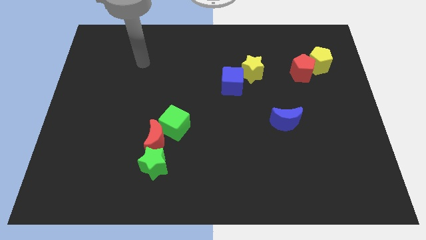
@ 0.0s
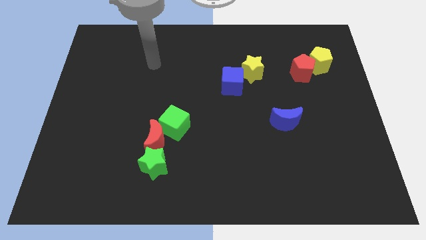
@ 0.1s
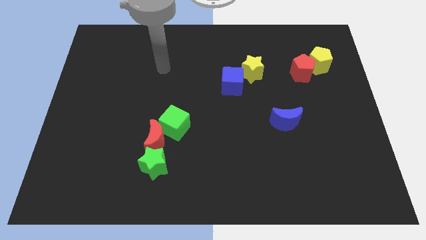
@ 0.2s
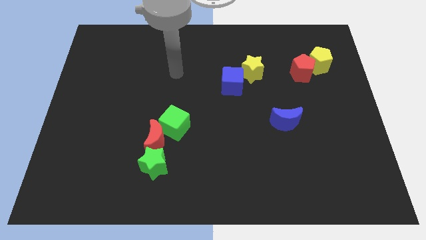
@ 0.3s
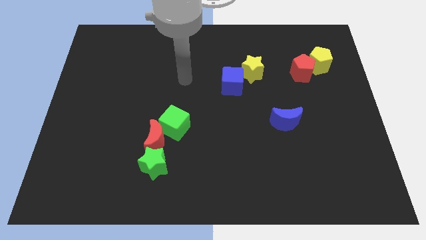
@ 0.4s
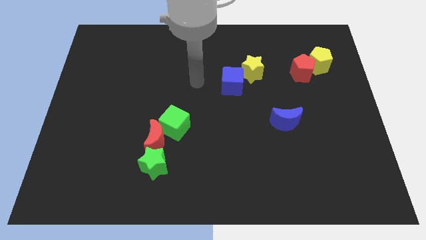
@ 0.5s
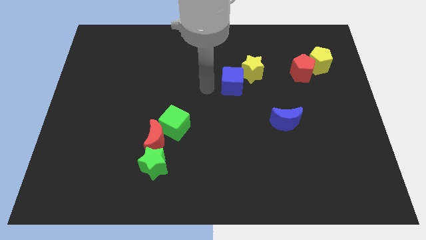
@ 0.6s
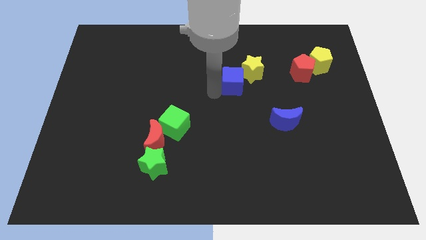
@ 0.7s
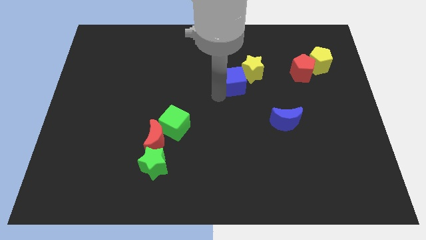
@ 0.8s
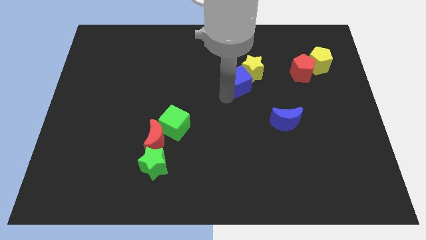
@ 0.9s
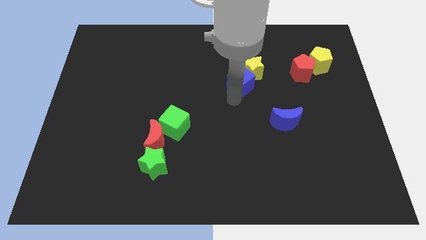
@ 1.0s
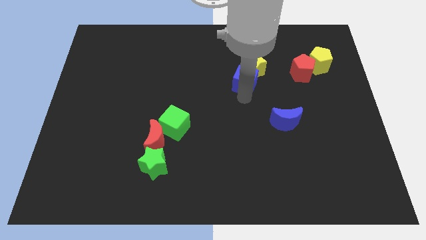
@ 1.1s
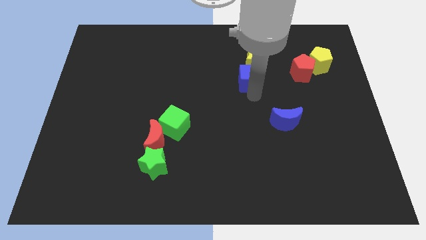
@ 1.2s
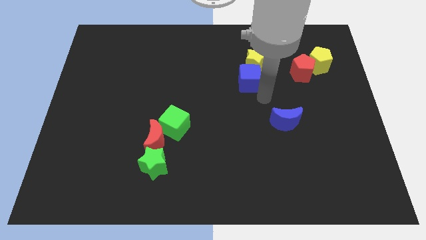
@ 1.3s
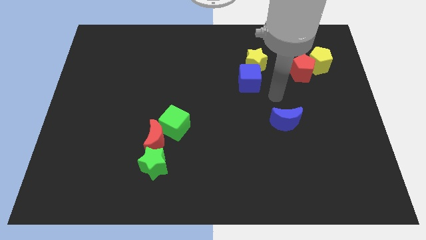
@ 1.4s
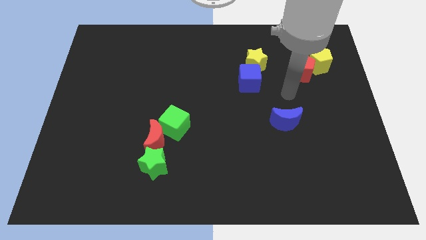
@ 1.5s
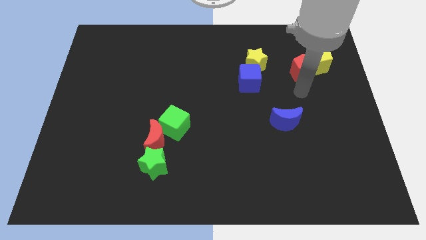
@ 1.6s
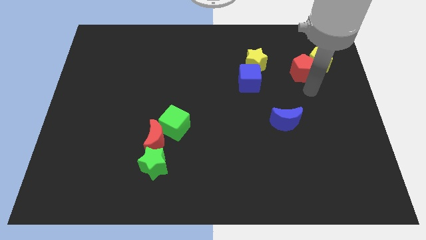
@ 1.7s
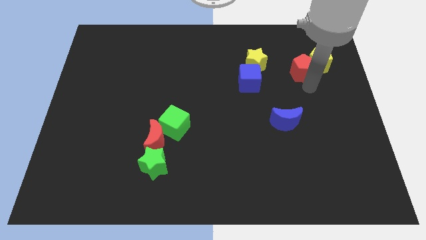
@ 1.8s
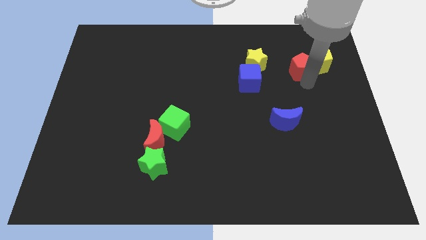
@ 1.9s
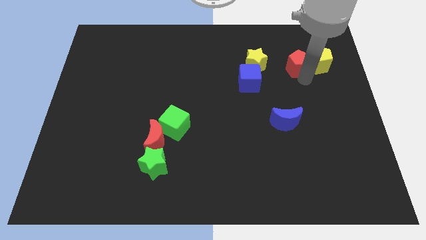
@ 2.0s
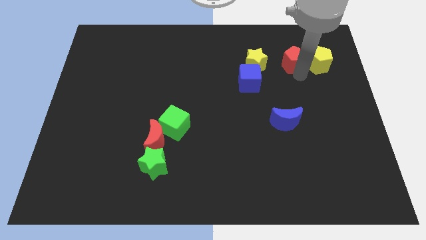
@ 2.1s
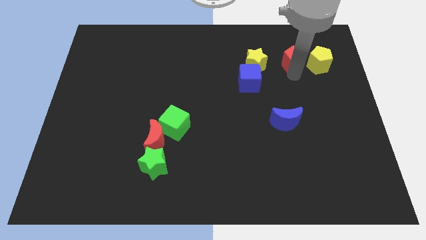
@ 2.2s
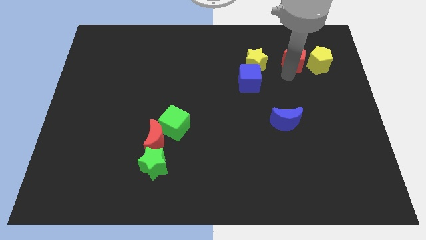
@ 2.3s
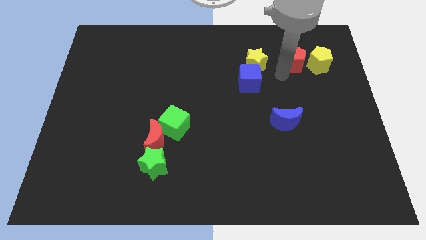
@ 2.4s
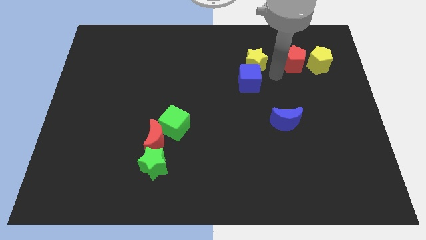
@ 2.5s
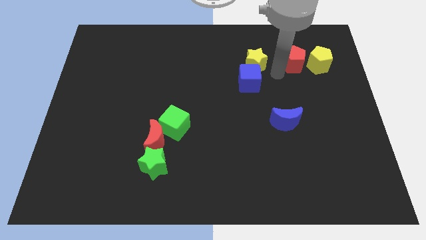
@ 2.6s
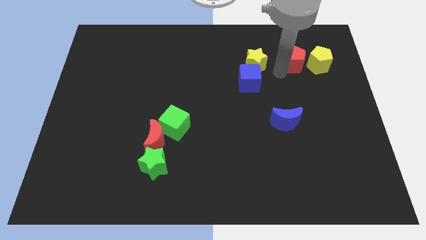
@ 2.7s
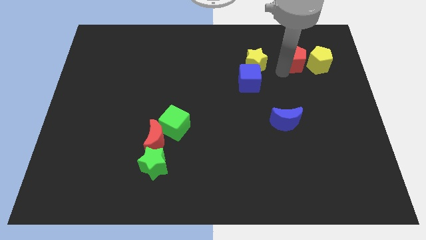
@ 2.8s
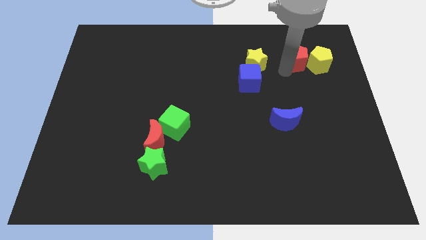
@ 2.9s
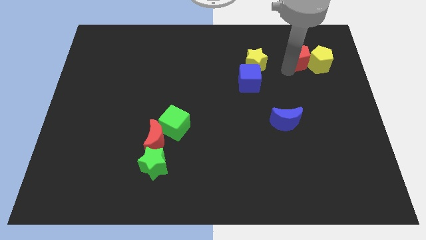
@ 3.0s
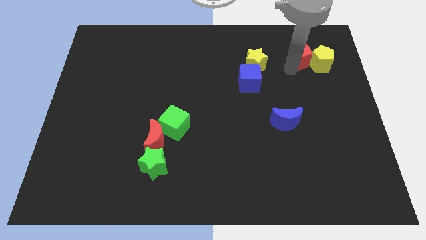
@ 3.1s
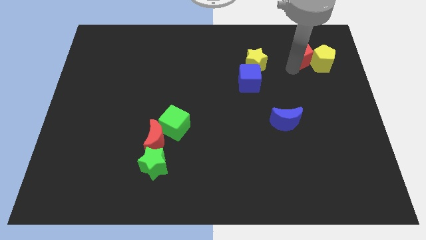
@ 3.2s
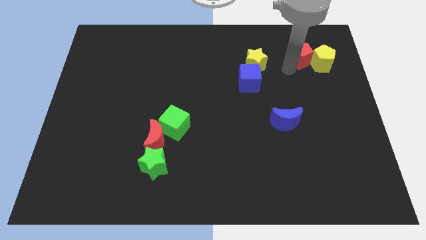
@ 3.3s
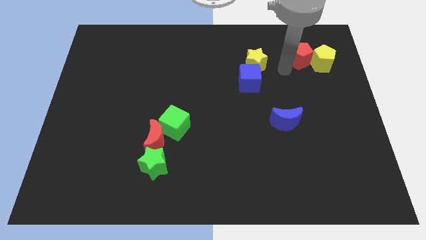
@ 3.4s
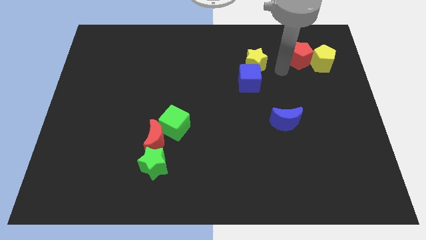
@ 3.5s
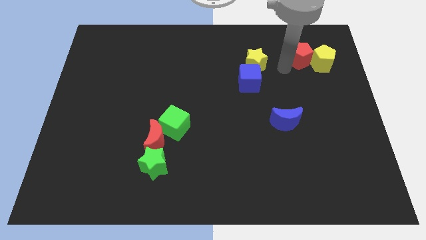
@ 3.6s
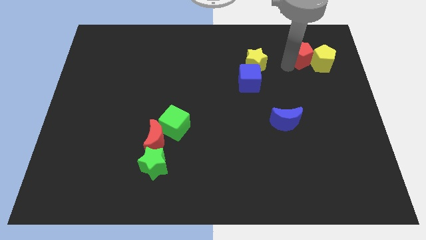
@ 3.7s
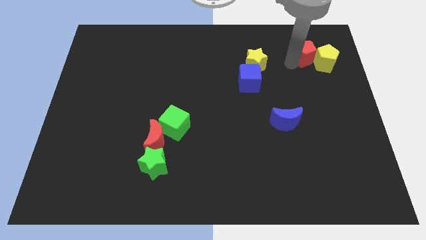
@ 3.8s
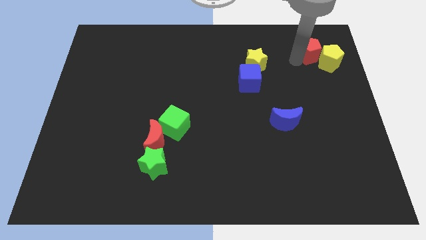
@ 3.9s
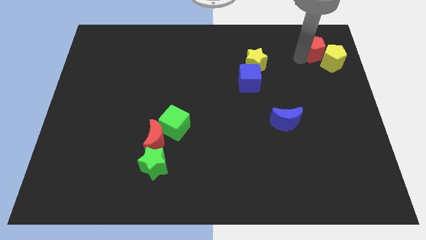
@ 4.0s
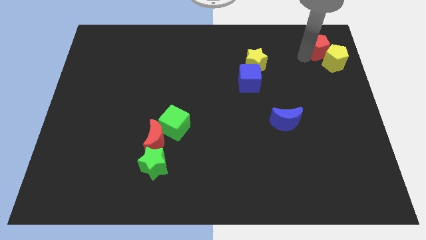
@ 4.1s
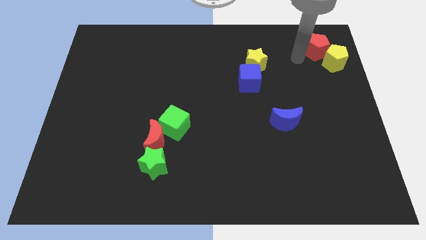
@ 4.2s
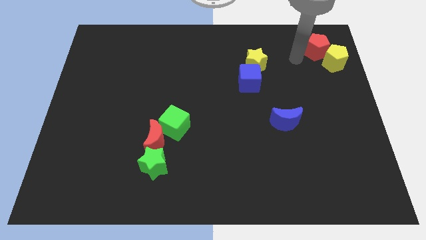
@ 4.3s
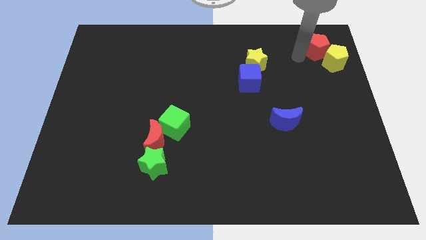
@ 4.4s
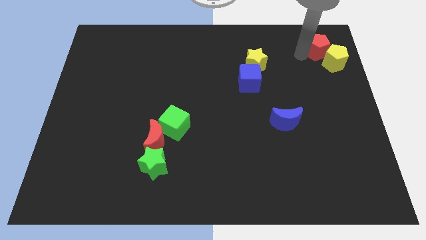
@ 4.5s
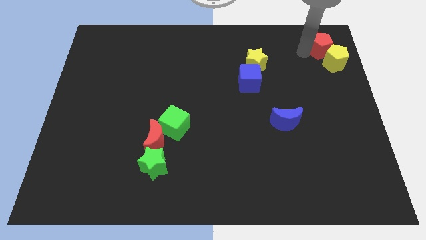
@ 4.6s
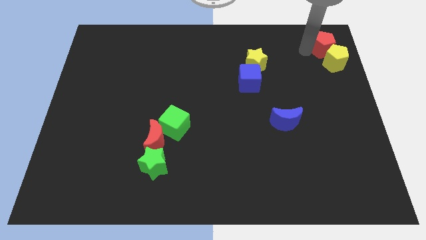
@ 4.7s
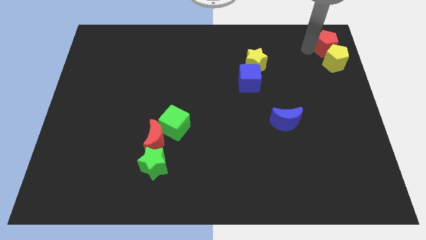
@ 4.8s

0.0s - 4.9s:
push the red pentagon to the top right of the board

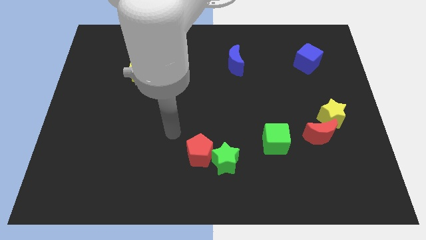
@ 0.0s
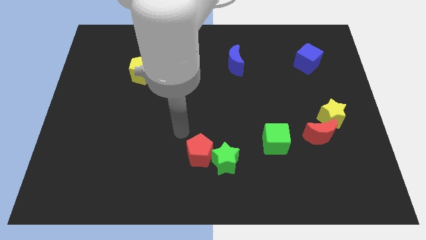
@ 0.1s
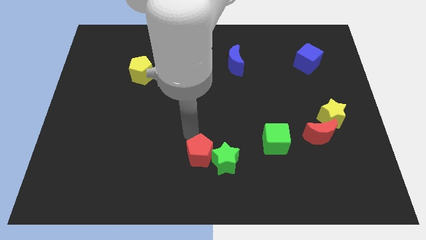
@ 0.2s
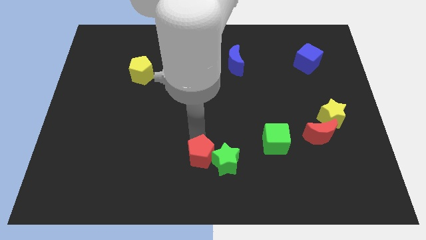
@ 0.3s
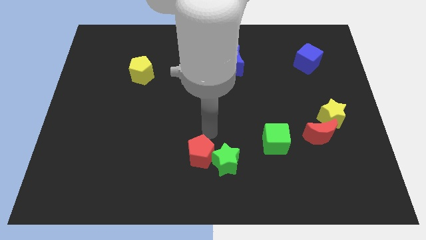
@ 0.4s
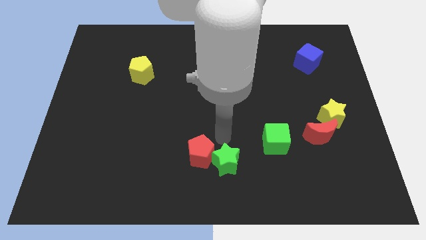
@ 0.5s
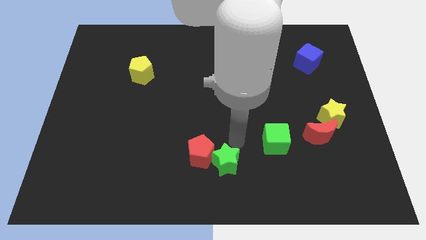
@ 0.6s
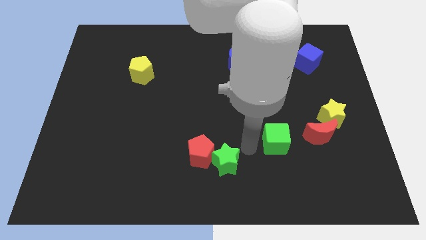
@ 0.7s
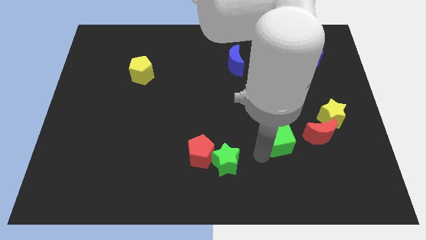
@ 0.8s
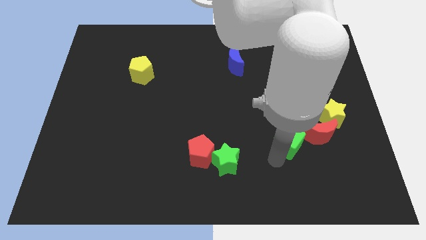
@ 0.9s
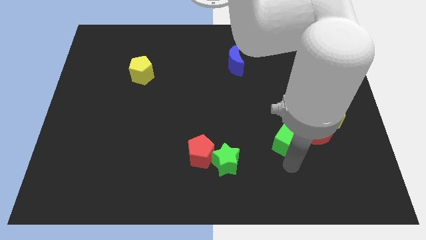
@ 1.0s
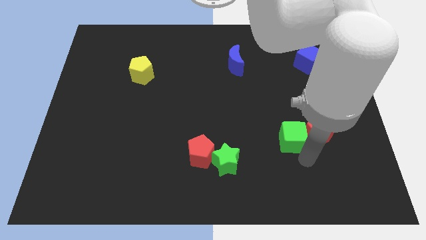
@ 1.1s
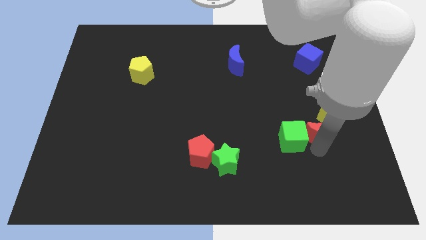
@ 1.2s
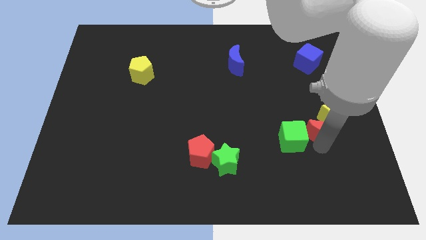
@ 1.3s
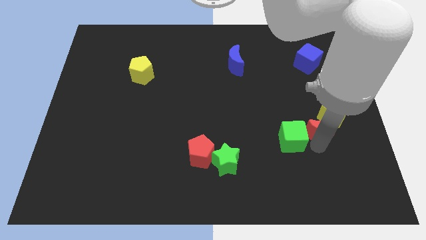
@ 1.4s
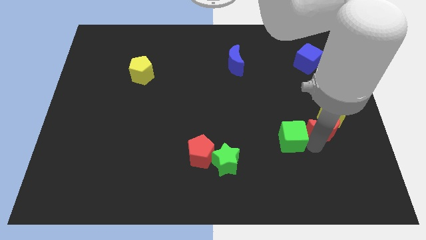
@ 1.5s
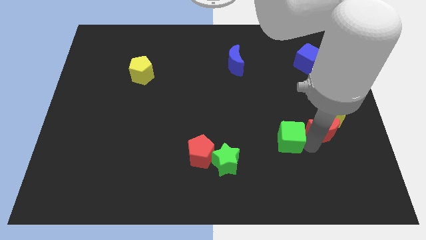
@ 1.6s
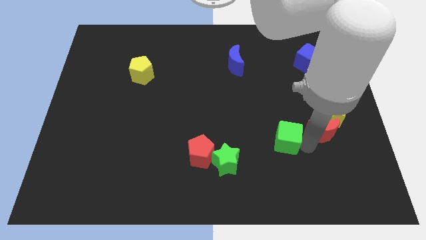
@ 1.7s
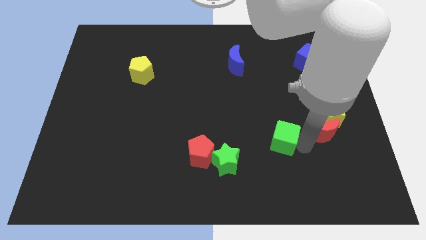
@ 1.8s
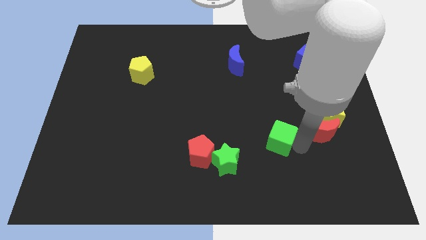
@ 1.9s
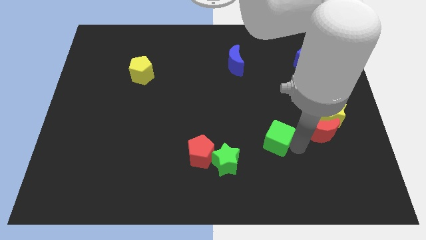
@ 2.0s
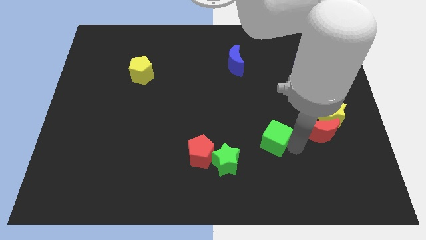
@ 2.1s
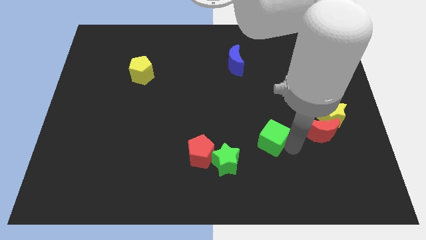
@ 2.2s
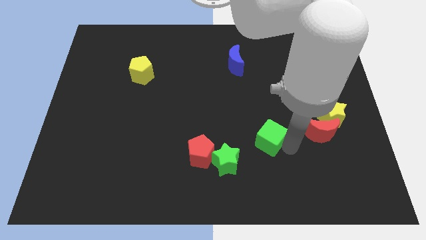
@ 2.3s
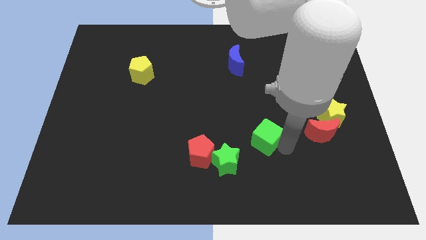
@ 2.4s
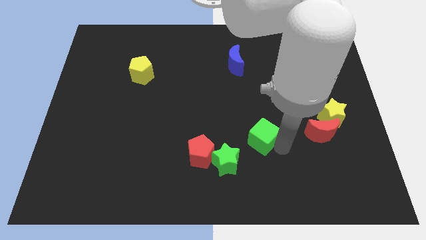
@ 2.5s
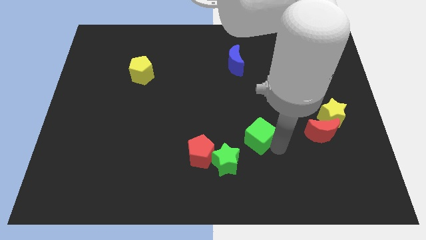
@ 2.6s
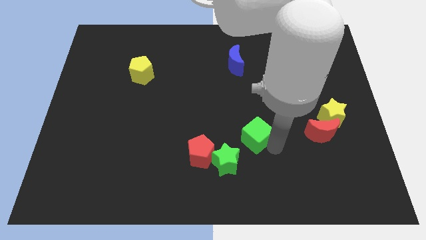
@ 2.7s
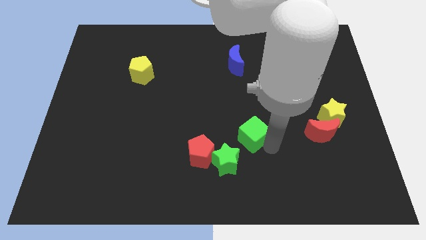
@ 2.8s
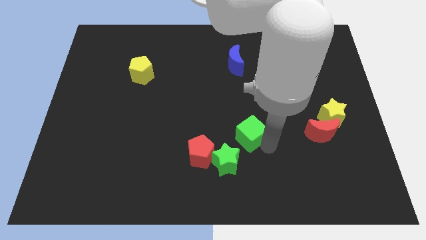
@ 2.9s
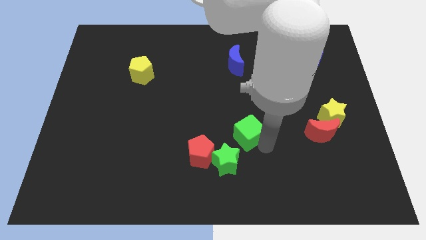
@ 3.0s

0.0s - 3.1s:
put the green cube to the middle
